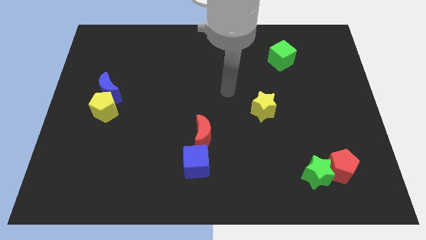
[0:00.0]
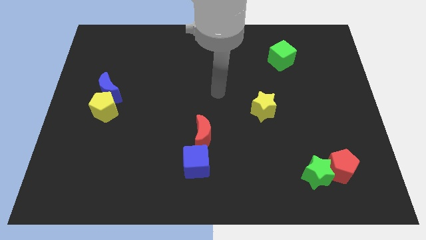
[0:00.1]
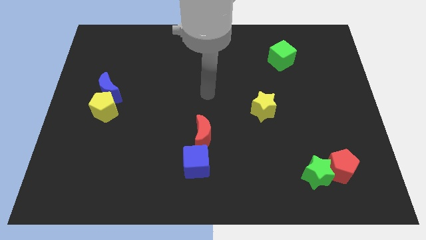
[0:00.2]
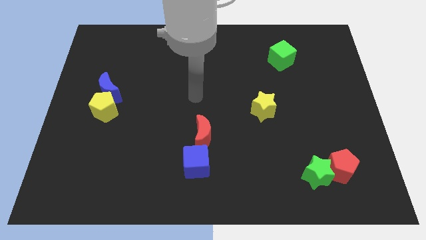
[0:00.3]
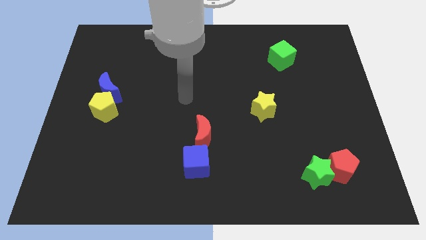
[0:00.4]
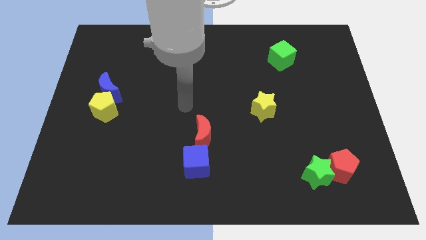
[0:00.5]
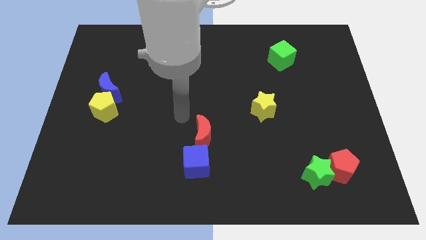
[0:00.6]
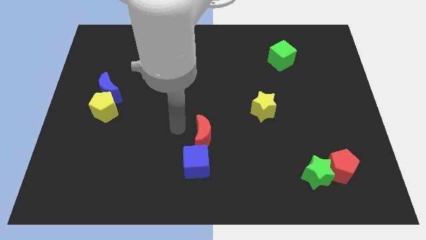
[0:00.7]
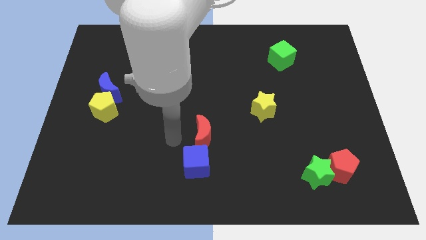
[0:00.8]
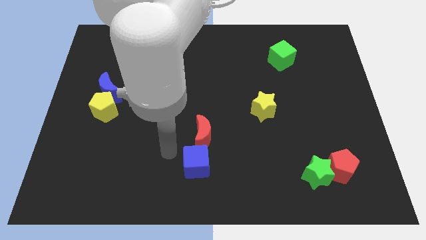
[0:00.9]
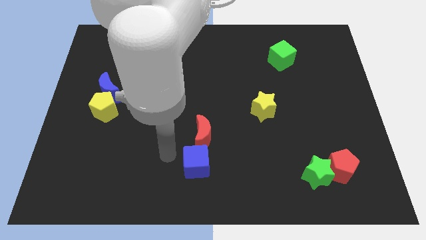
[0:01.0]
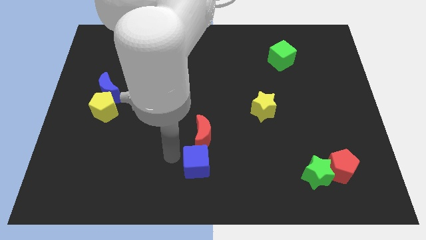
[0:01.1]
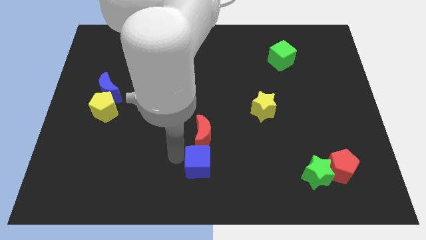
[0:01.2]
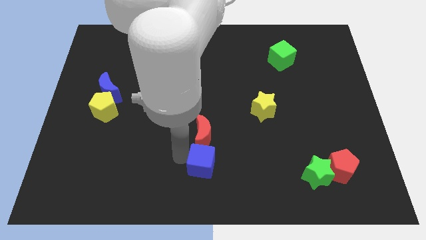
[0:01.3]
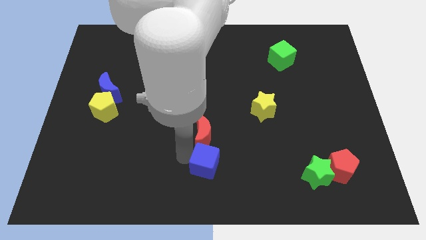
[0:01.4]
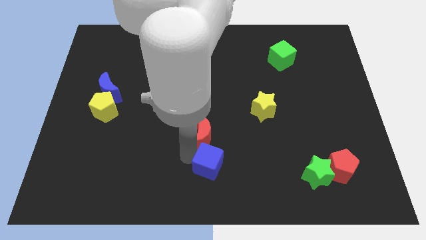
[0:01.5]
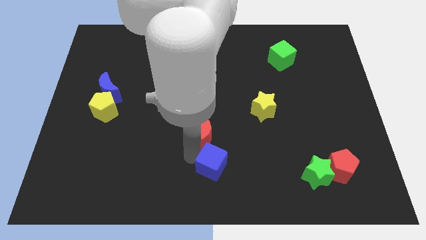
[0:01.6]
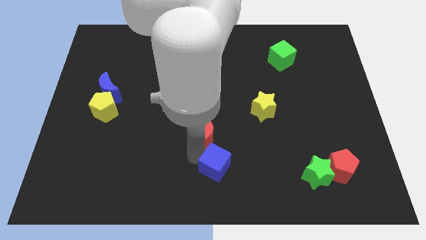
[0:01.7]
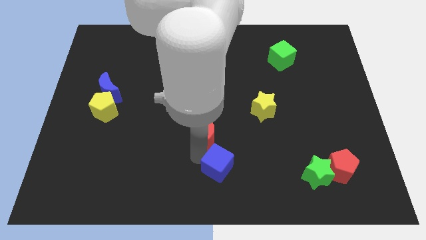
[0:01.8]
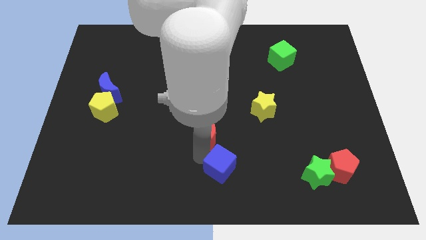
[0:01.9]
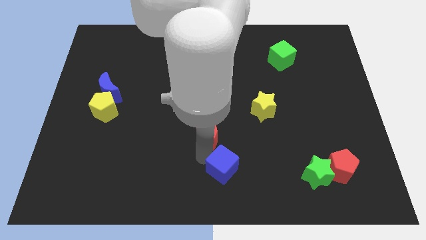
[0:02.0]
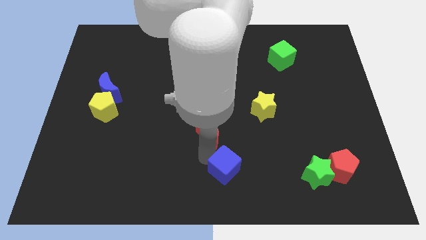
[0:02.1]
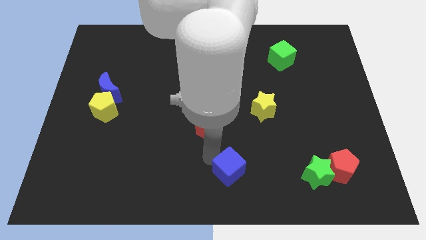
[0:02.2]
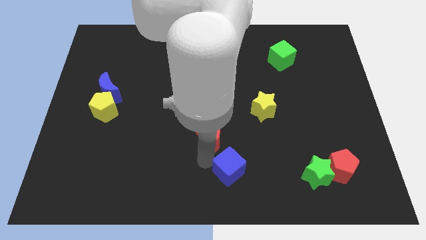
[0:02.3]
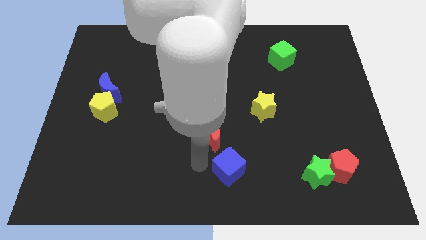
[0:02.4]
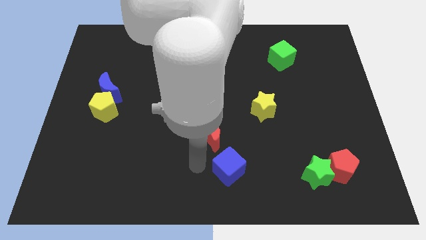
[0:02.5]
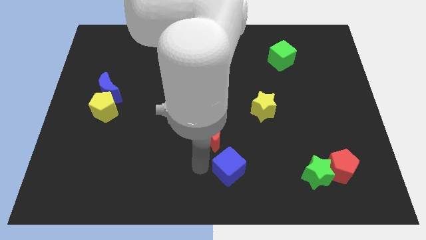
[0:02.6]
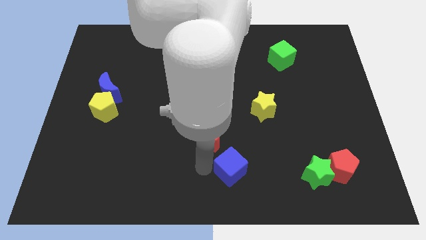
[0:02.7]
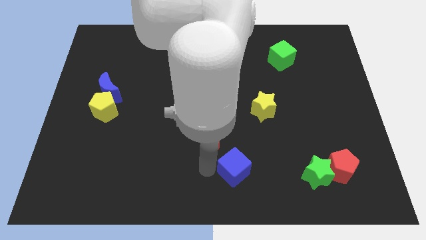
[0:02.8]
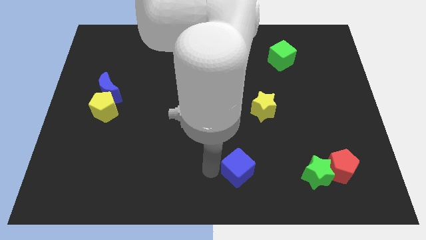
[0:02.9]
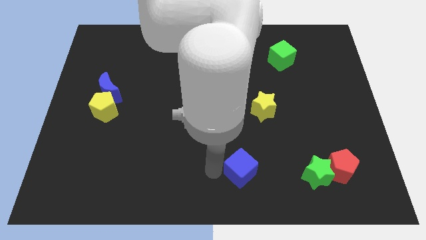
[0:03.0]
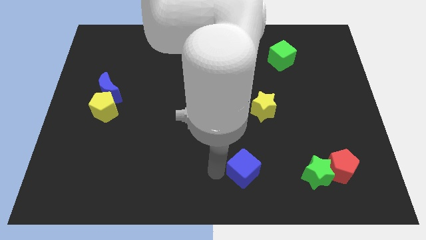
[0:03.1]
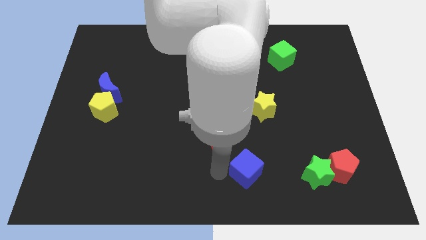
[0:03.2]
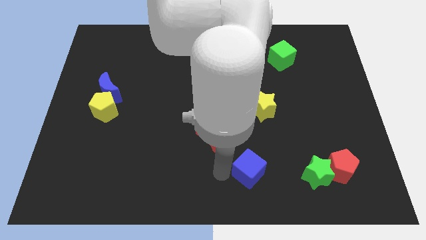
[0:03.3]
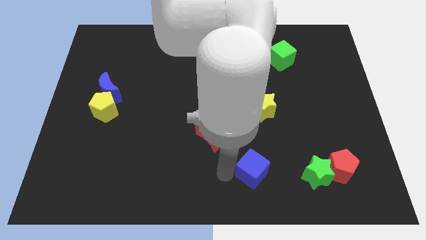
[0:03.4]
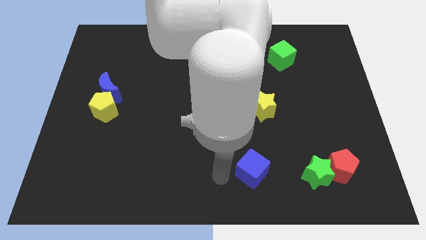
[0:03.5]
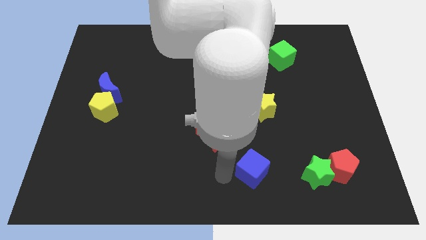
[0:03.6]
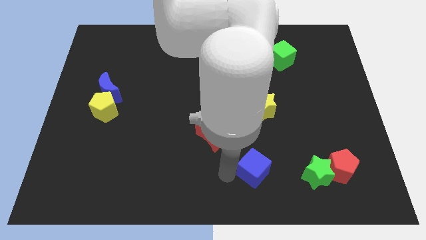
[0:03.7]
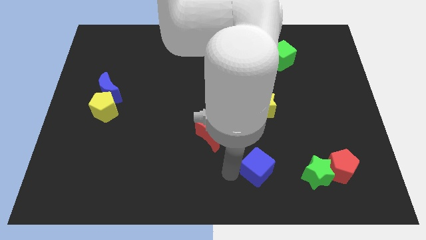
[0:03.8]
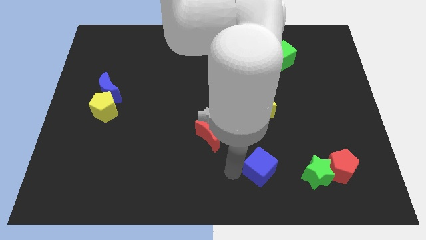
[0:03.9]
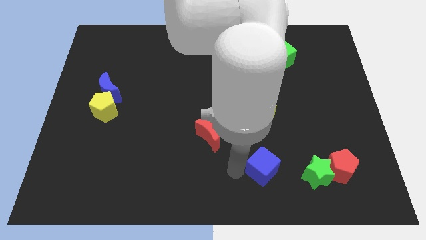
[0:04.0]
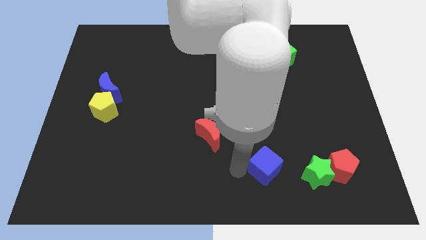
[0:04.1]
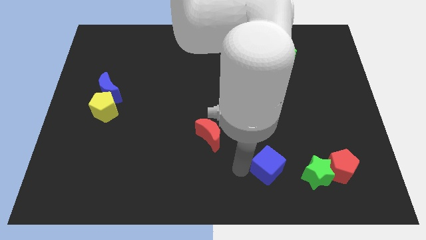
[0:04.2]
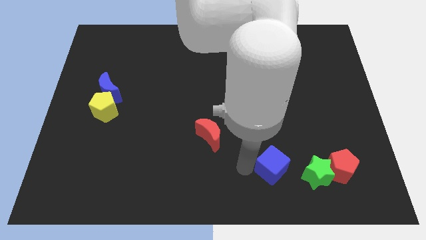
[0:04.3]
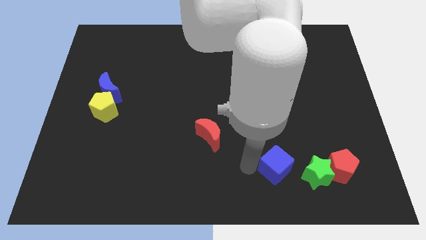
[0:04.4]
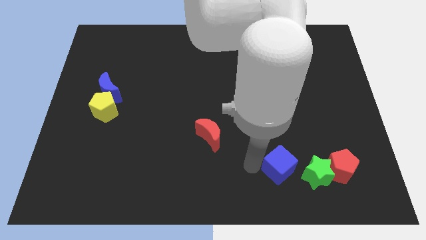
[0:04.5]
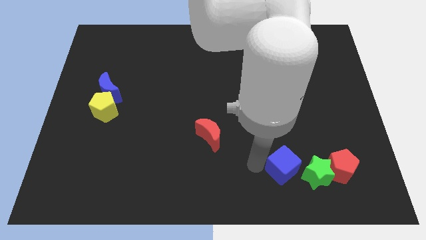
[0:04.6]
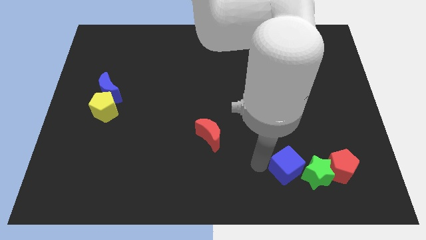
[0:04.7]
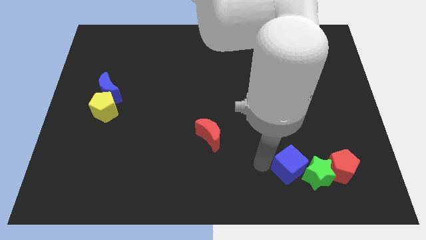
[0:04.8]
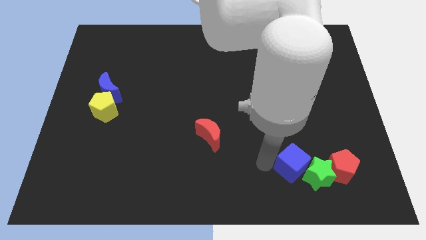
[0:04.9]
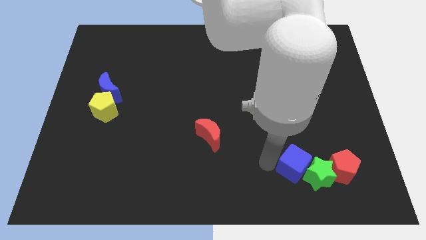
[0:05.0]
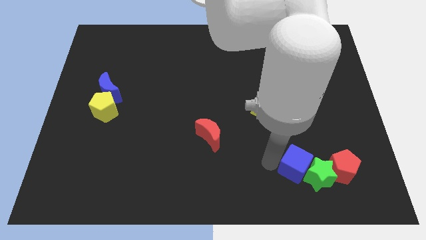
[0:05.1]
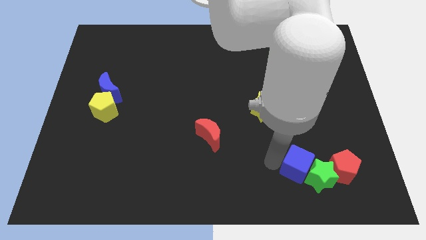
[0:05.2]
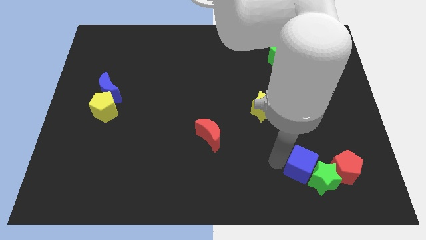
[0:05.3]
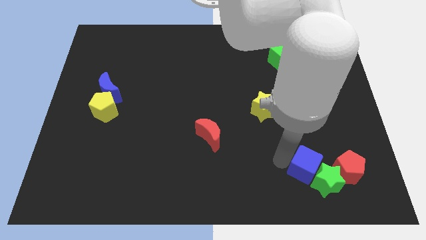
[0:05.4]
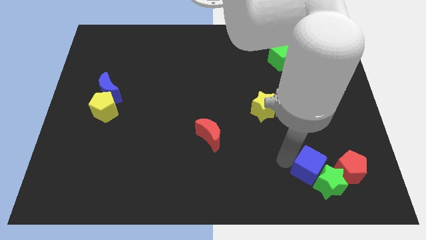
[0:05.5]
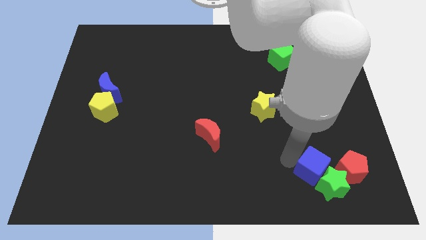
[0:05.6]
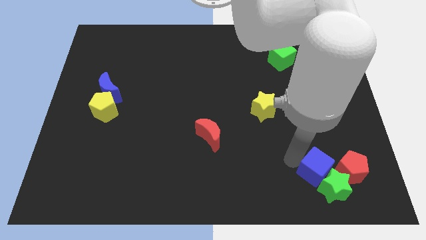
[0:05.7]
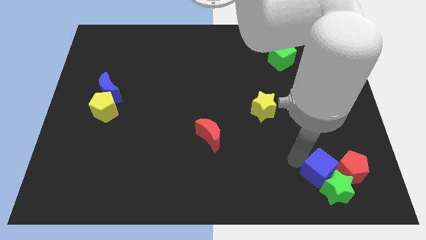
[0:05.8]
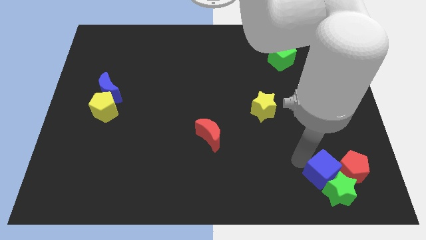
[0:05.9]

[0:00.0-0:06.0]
put the blue cube close to the red pentagon

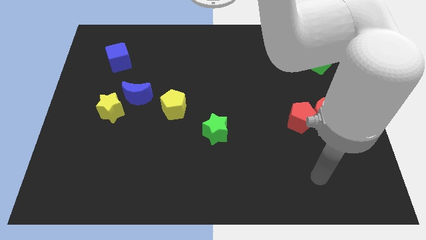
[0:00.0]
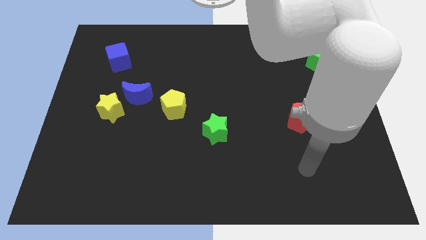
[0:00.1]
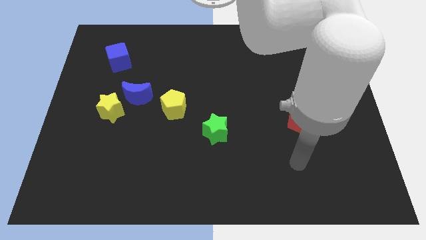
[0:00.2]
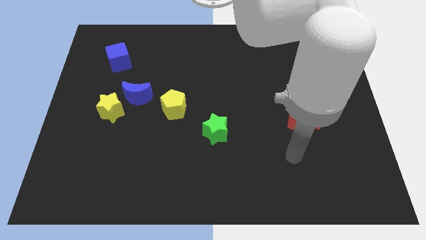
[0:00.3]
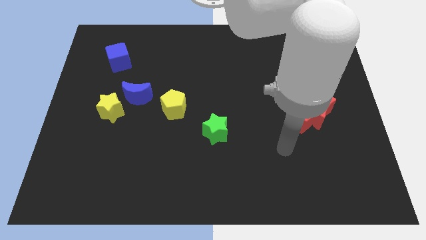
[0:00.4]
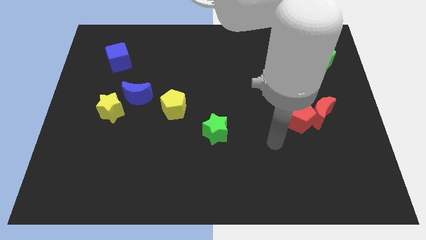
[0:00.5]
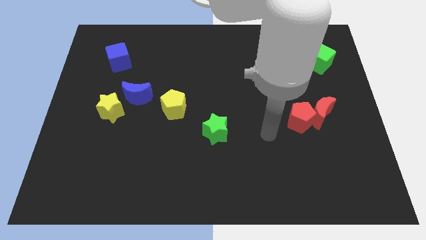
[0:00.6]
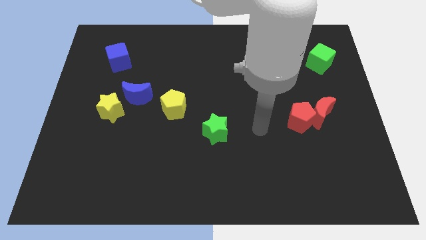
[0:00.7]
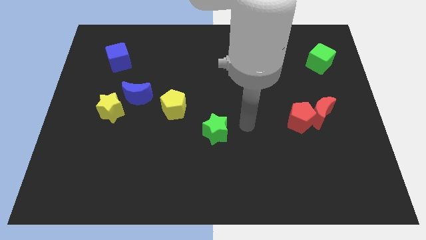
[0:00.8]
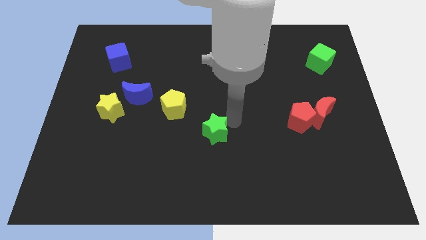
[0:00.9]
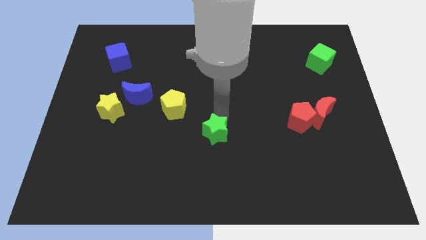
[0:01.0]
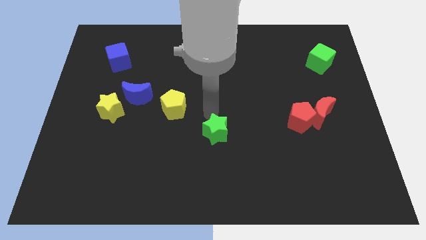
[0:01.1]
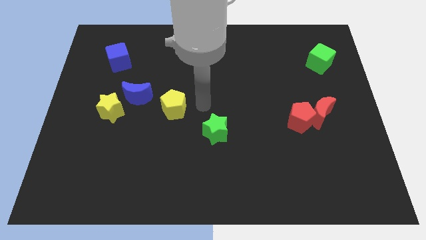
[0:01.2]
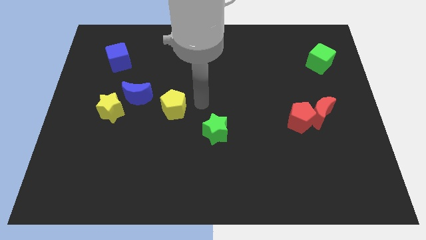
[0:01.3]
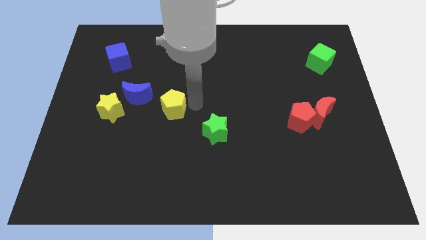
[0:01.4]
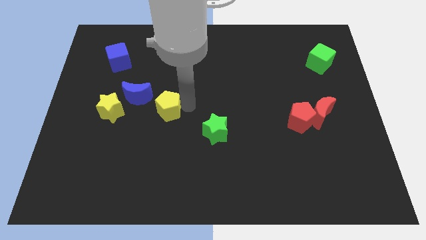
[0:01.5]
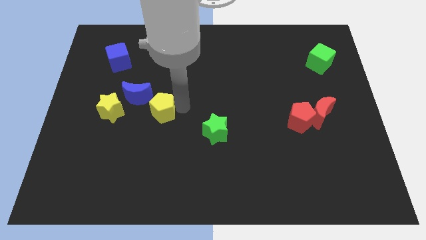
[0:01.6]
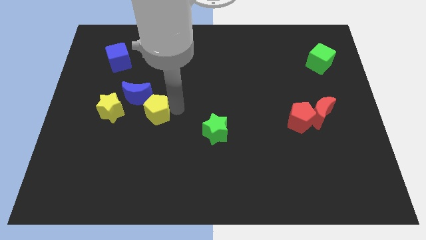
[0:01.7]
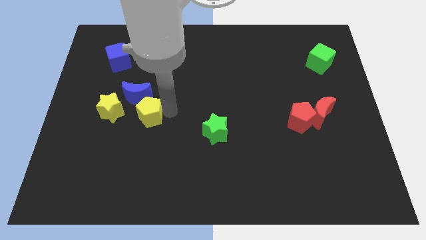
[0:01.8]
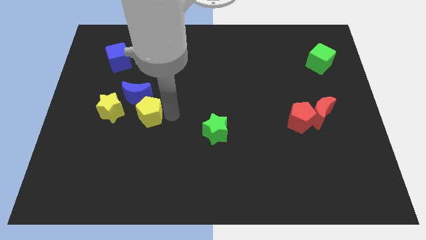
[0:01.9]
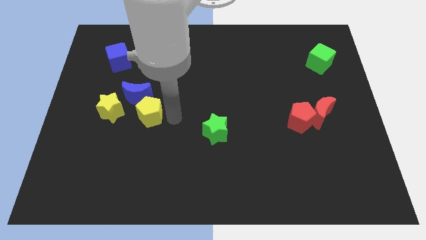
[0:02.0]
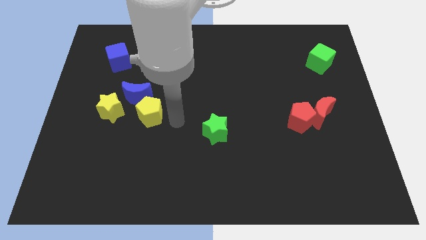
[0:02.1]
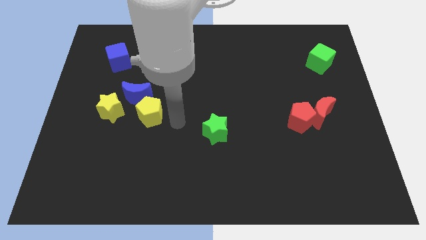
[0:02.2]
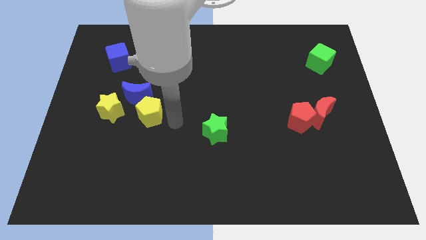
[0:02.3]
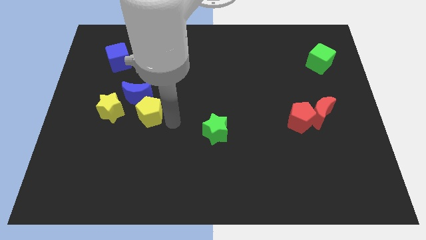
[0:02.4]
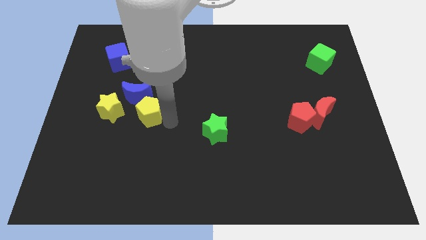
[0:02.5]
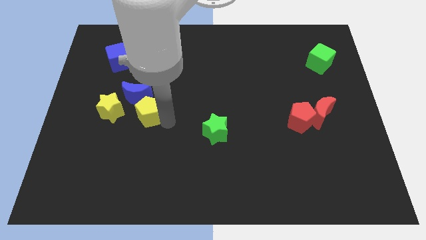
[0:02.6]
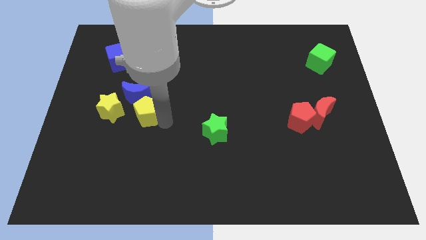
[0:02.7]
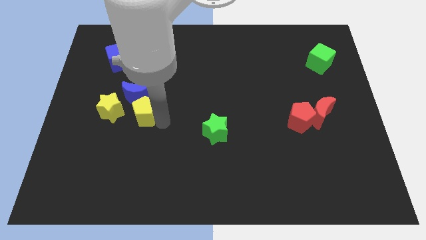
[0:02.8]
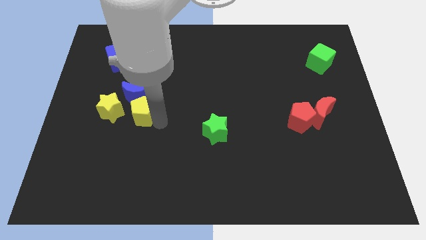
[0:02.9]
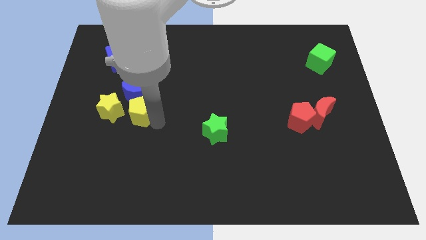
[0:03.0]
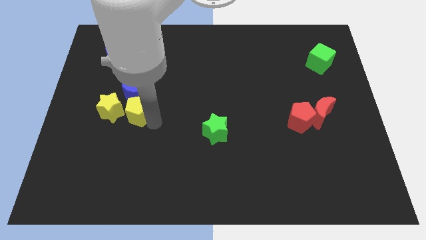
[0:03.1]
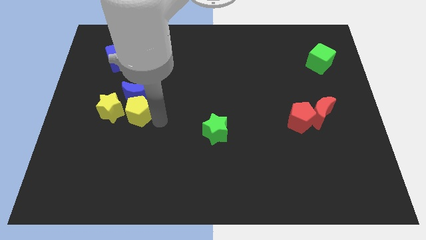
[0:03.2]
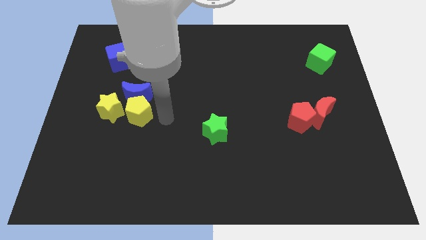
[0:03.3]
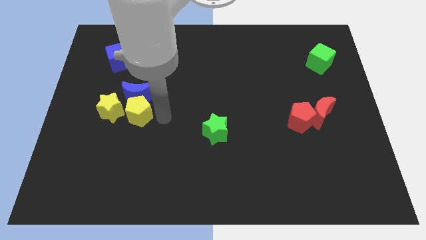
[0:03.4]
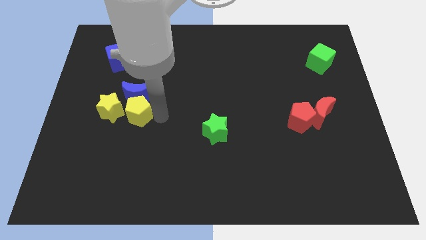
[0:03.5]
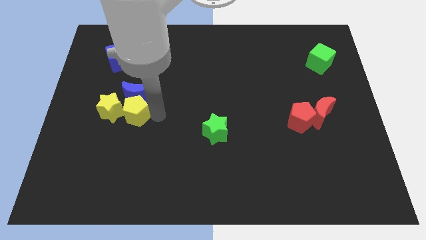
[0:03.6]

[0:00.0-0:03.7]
put the yellow pentagon to the yellow star
